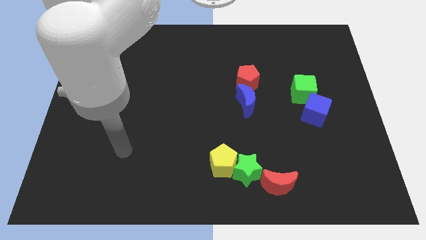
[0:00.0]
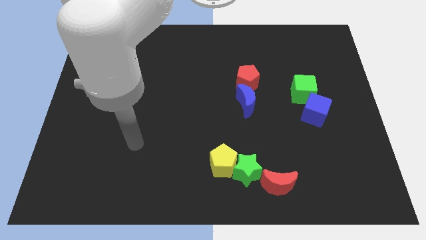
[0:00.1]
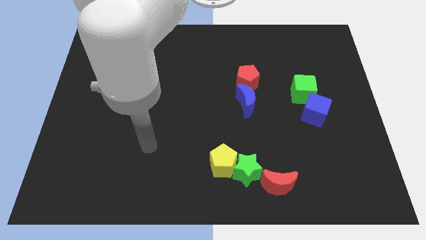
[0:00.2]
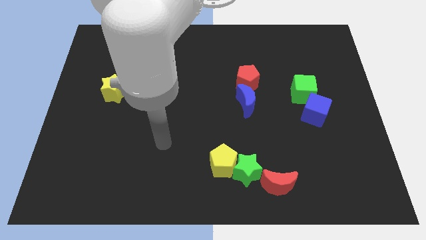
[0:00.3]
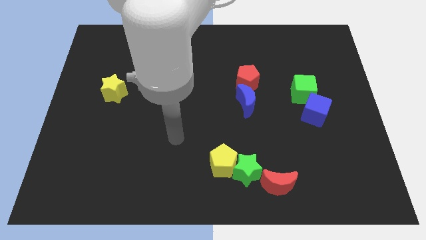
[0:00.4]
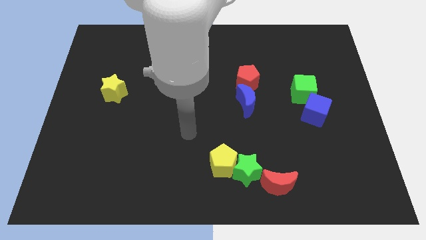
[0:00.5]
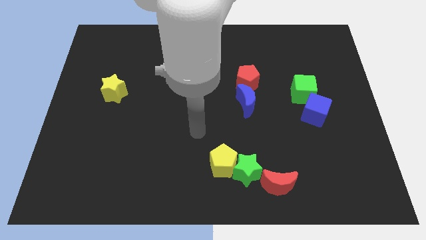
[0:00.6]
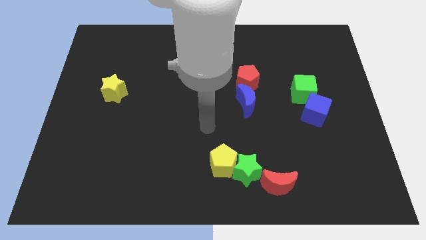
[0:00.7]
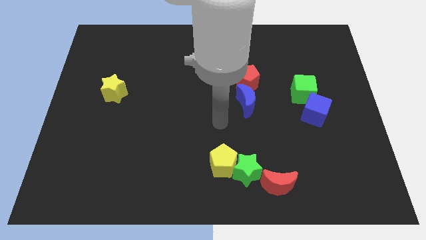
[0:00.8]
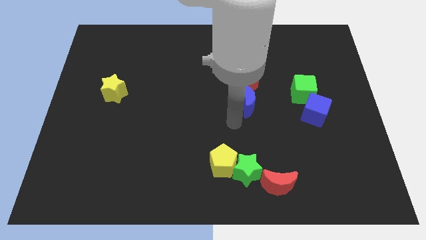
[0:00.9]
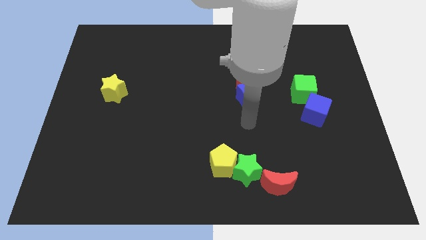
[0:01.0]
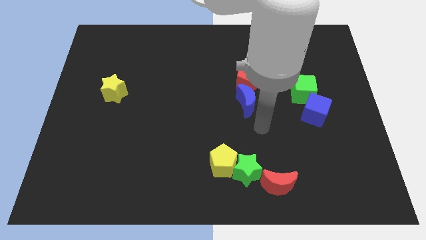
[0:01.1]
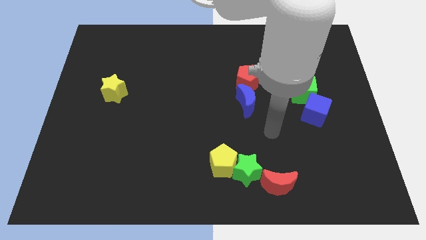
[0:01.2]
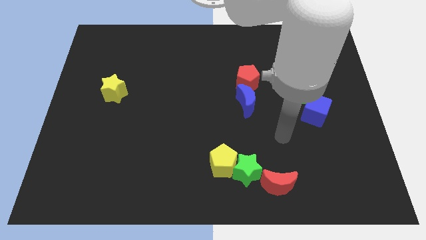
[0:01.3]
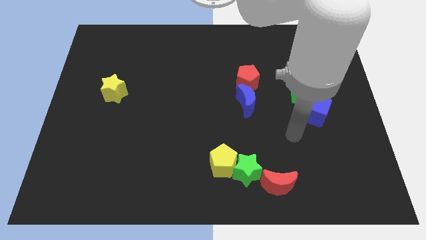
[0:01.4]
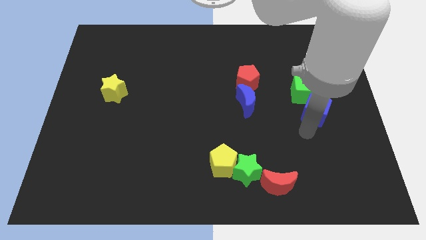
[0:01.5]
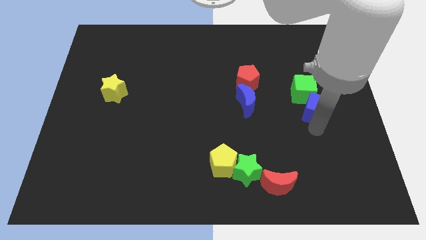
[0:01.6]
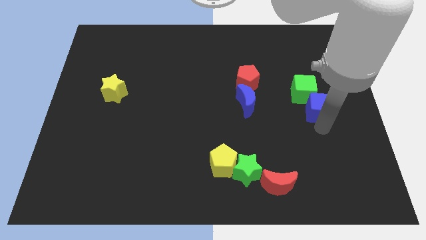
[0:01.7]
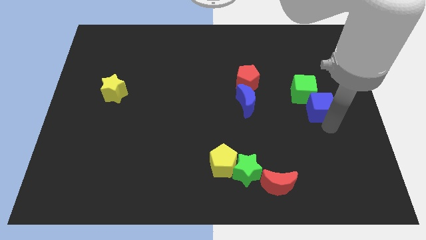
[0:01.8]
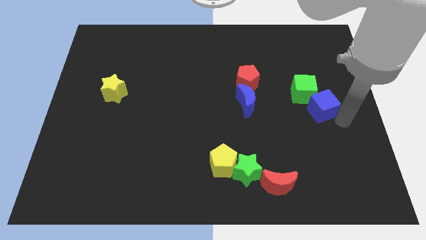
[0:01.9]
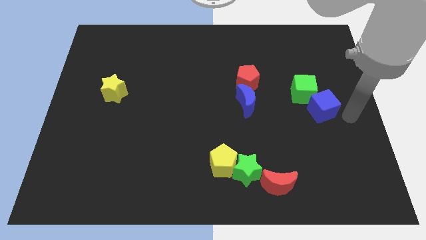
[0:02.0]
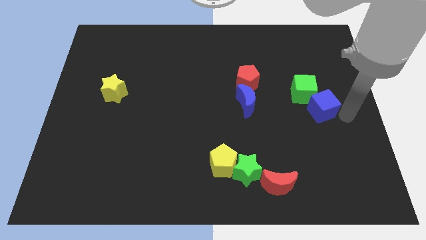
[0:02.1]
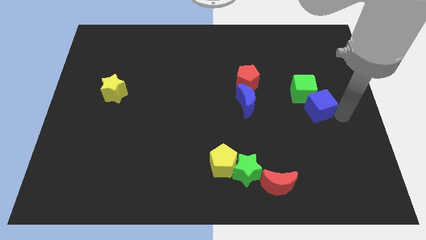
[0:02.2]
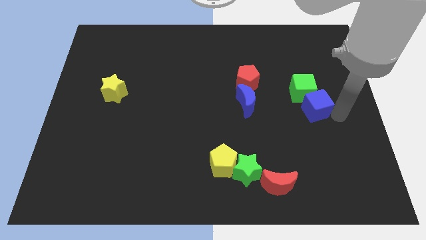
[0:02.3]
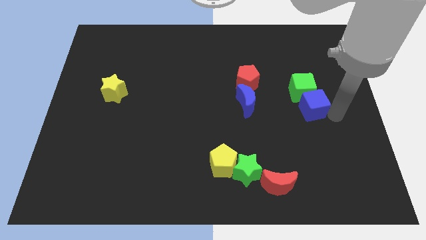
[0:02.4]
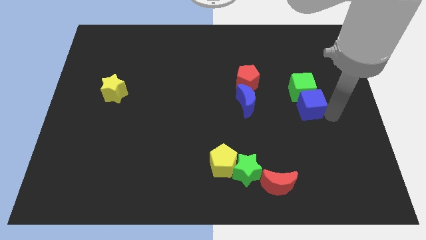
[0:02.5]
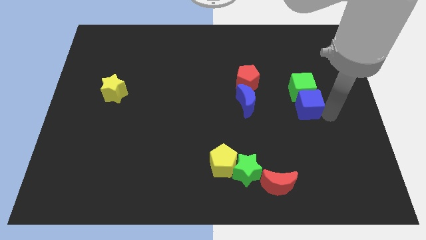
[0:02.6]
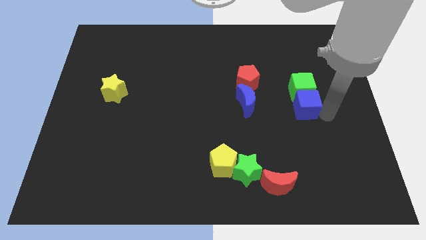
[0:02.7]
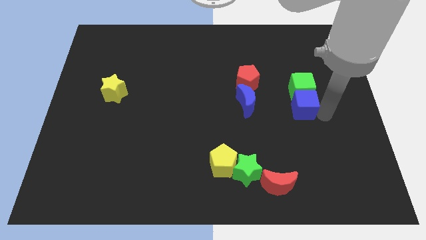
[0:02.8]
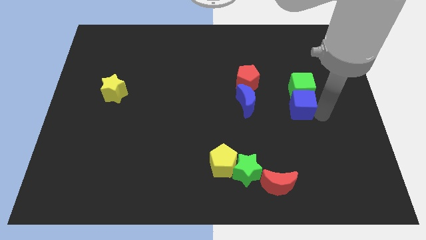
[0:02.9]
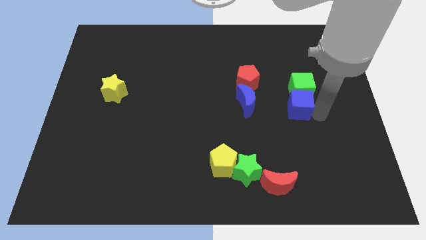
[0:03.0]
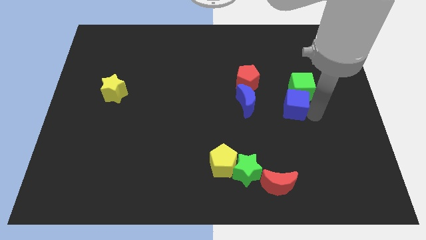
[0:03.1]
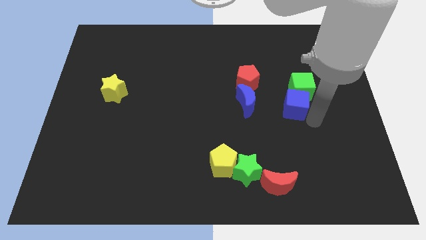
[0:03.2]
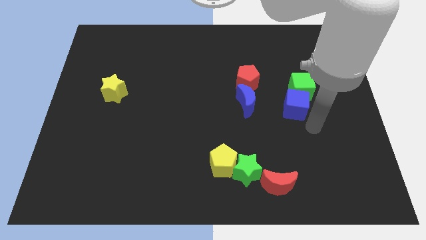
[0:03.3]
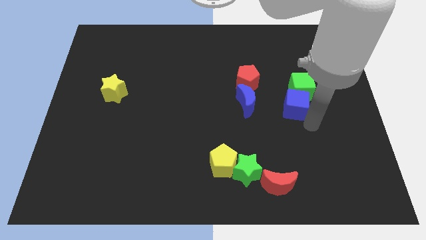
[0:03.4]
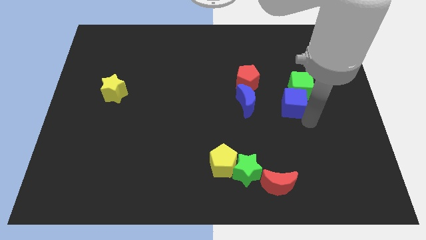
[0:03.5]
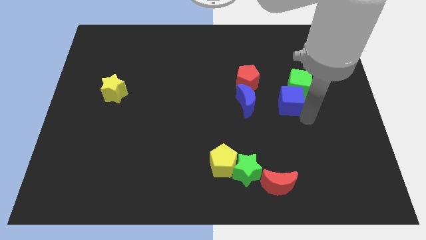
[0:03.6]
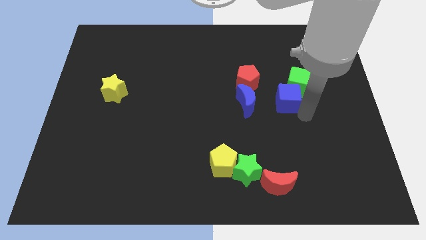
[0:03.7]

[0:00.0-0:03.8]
move the blue cube a little diagonally up and to the left

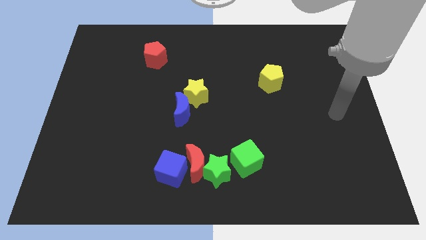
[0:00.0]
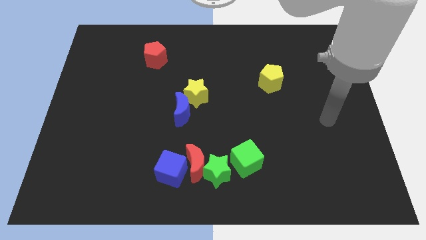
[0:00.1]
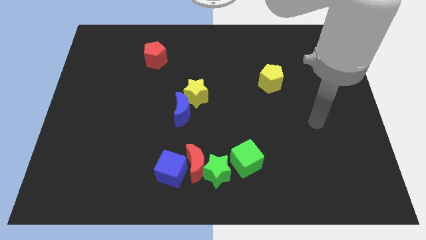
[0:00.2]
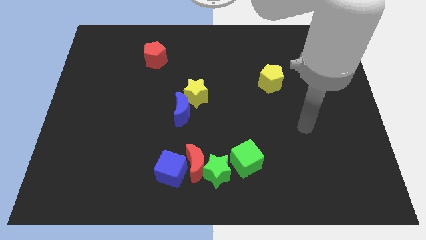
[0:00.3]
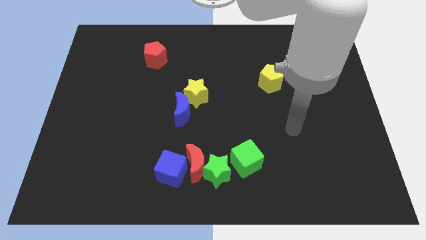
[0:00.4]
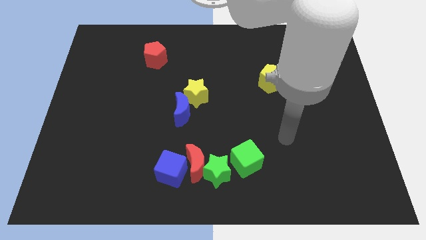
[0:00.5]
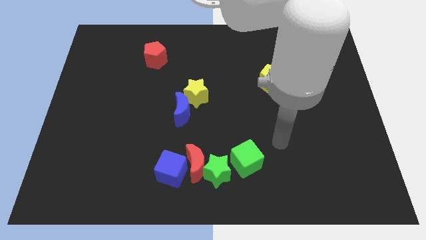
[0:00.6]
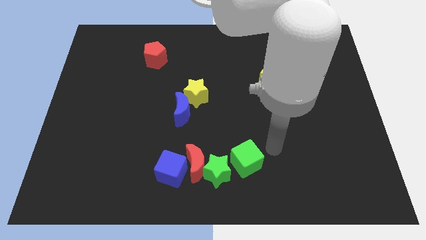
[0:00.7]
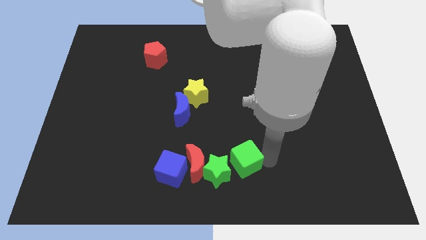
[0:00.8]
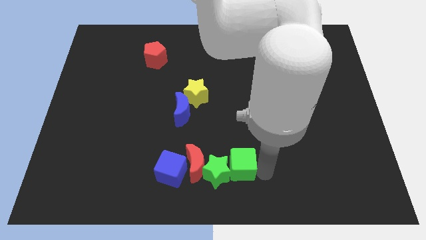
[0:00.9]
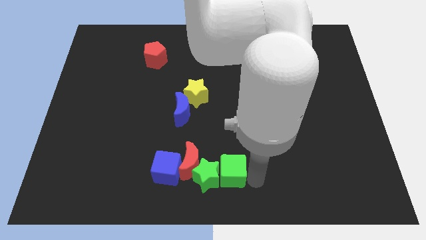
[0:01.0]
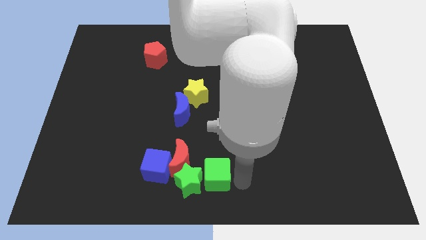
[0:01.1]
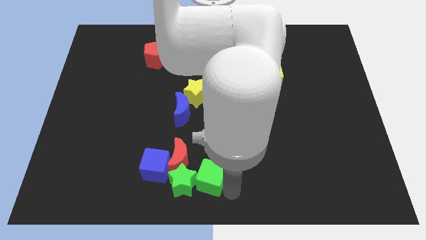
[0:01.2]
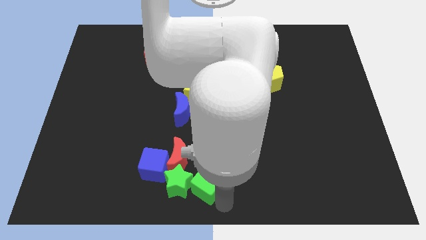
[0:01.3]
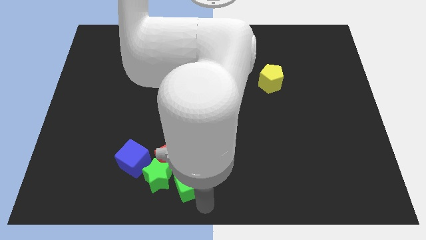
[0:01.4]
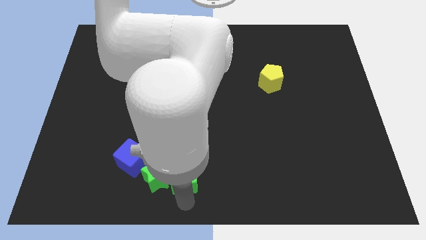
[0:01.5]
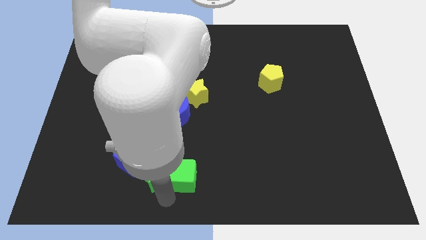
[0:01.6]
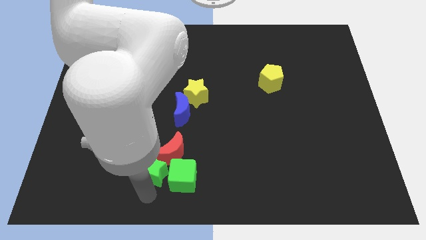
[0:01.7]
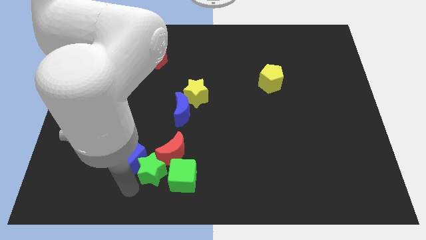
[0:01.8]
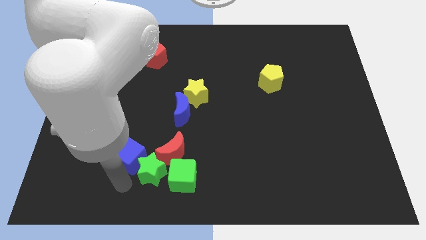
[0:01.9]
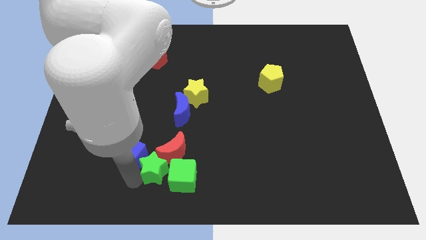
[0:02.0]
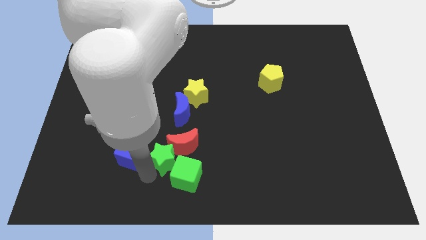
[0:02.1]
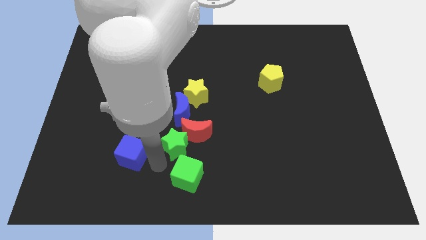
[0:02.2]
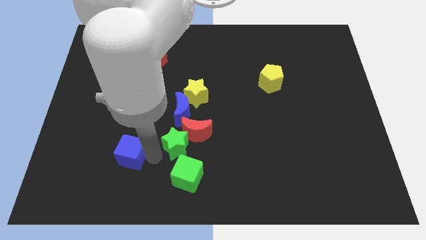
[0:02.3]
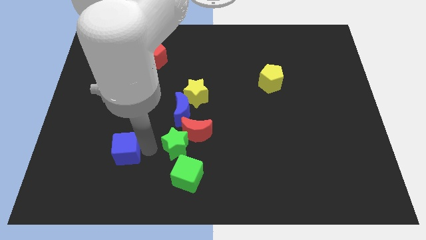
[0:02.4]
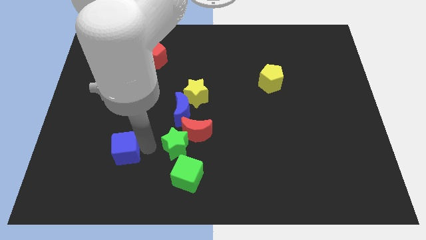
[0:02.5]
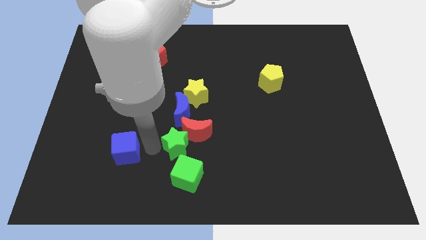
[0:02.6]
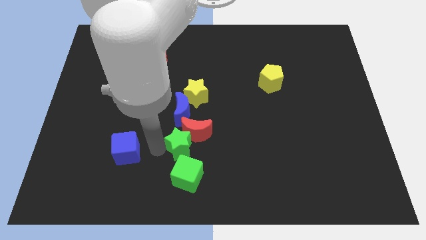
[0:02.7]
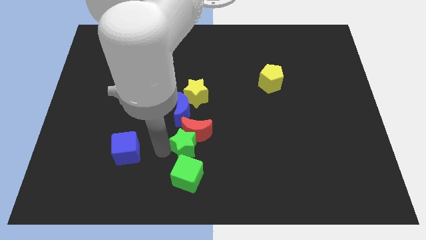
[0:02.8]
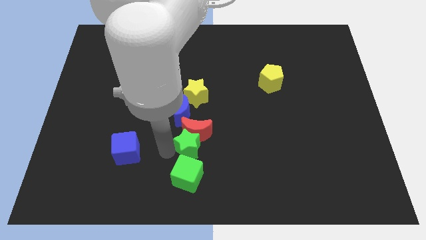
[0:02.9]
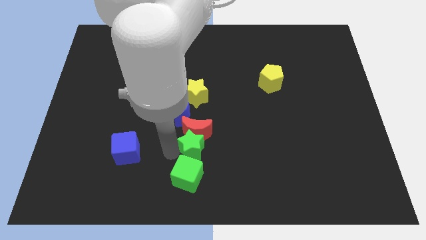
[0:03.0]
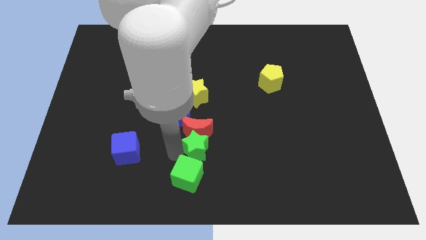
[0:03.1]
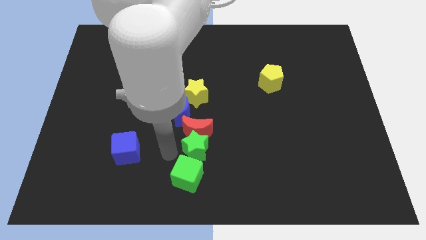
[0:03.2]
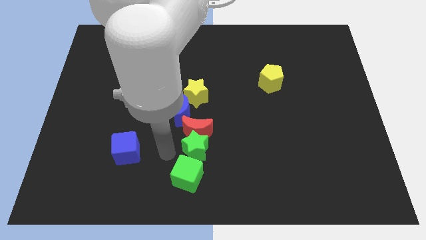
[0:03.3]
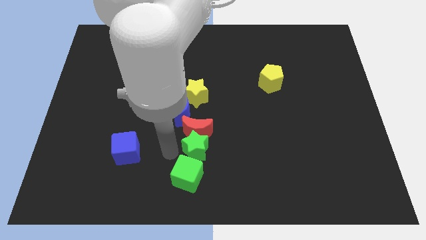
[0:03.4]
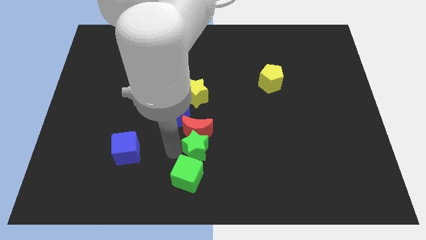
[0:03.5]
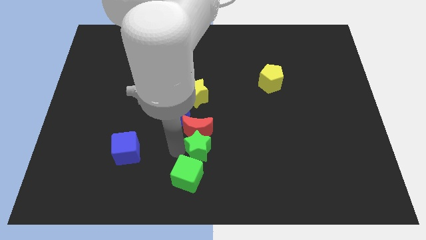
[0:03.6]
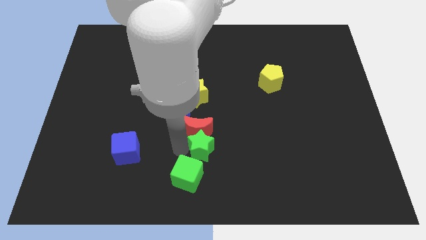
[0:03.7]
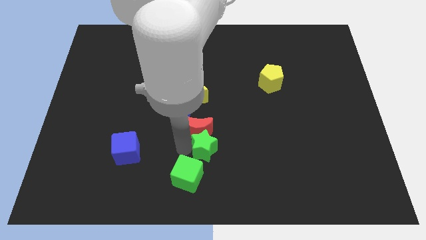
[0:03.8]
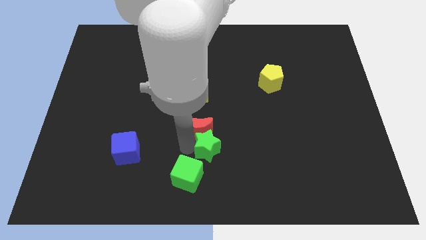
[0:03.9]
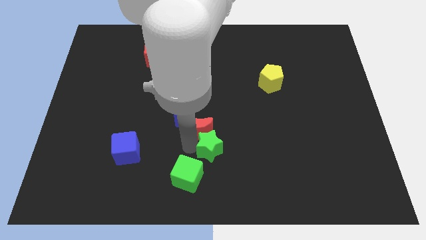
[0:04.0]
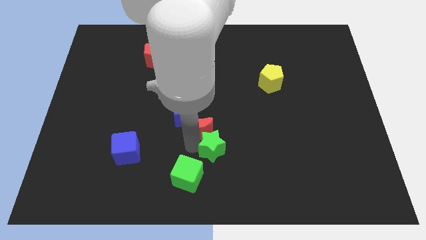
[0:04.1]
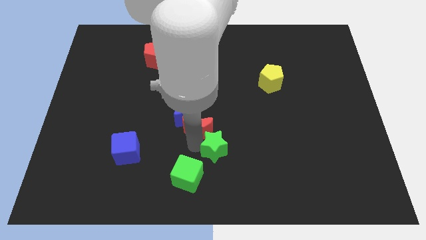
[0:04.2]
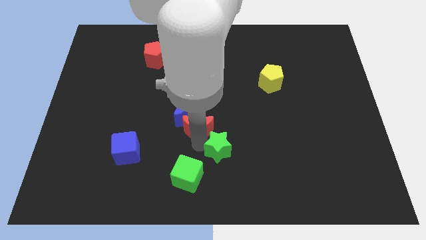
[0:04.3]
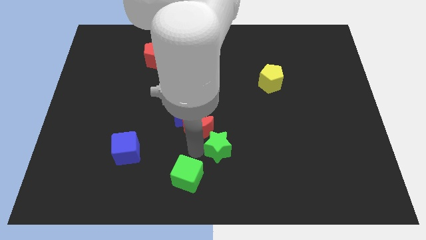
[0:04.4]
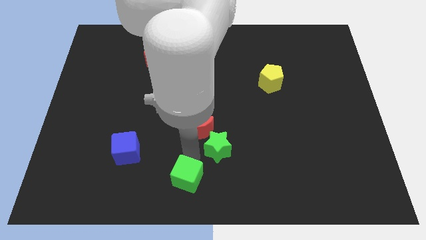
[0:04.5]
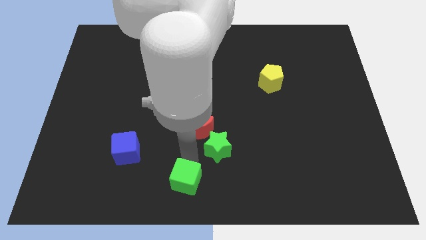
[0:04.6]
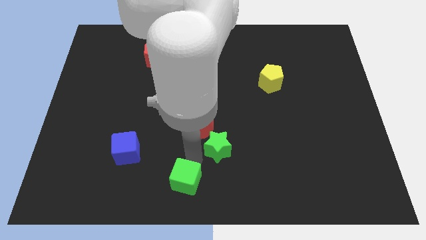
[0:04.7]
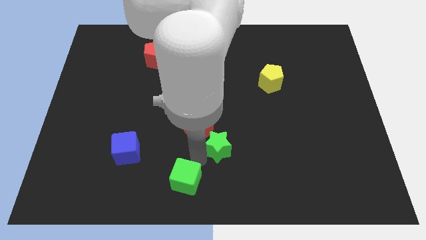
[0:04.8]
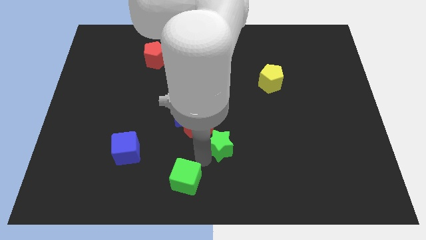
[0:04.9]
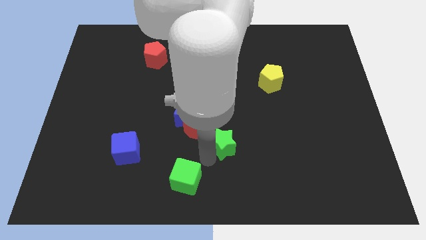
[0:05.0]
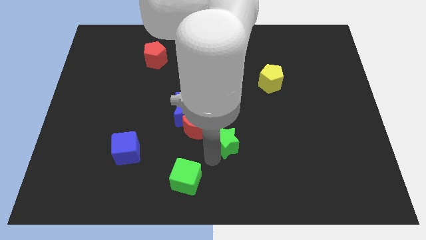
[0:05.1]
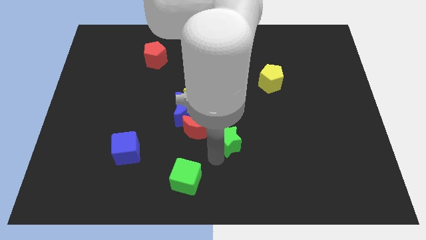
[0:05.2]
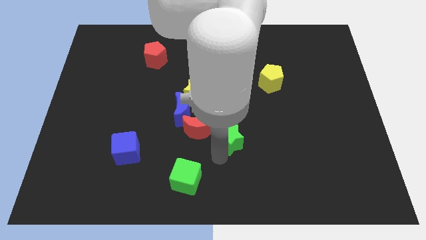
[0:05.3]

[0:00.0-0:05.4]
slightly slide the green star up and then to the right
